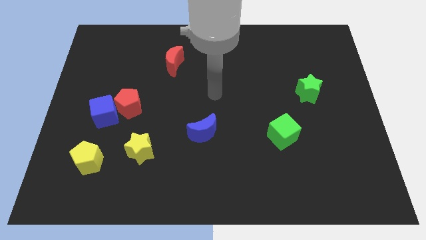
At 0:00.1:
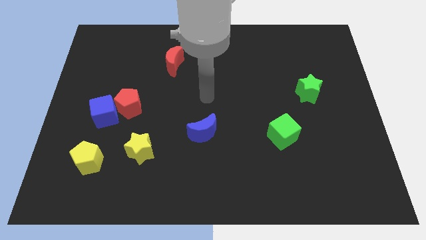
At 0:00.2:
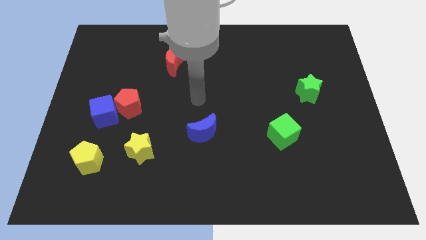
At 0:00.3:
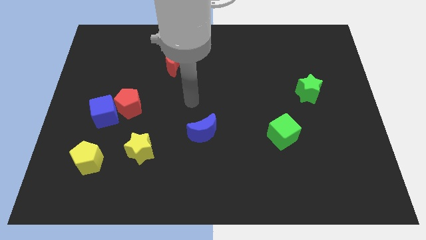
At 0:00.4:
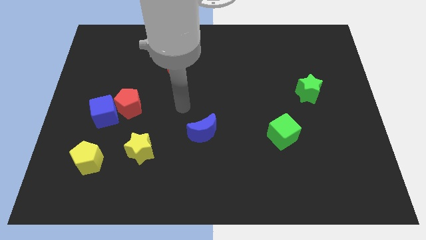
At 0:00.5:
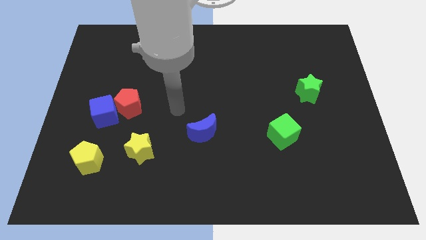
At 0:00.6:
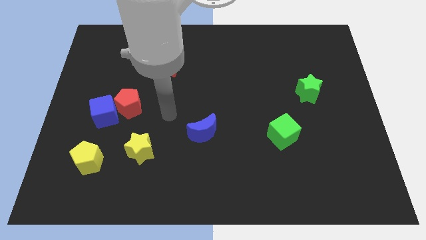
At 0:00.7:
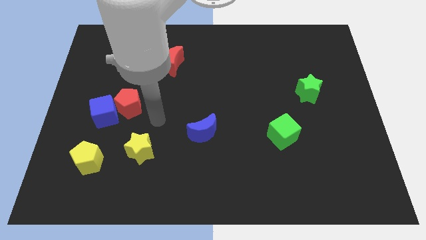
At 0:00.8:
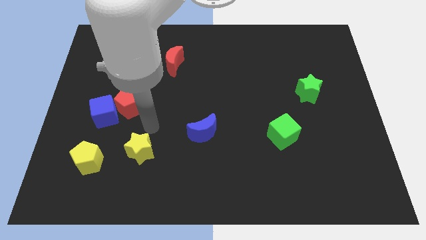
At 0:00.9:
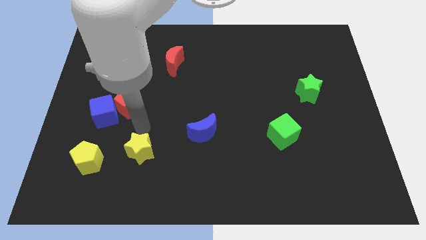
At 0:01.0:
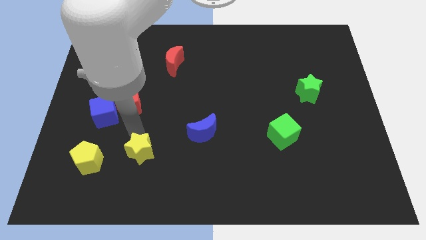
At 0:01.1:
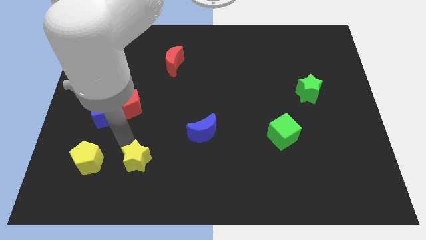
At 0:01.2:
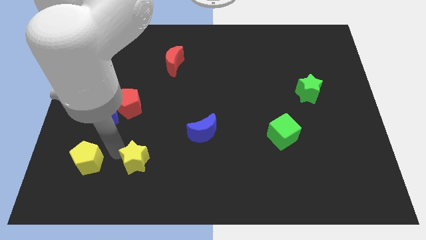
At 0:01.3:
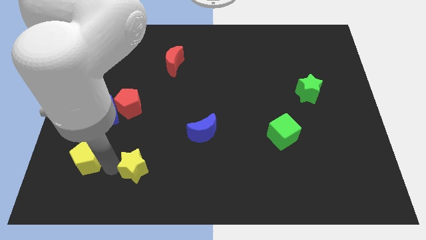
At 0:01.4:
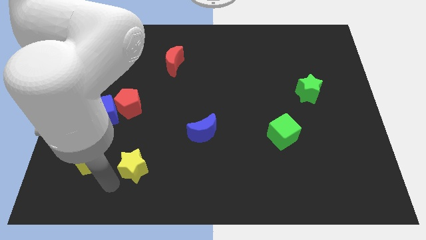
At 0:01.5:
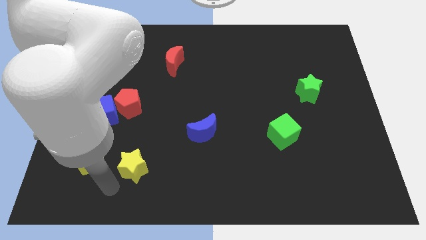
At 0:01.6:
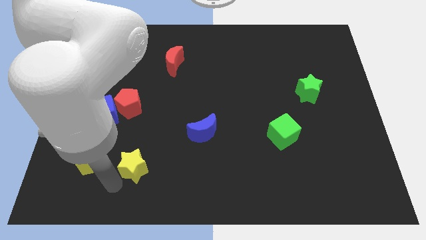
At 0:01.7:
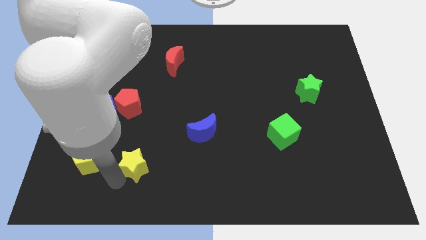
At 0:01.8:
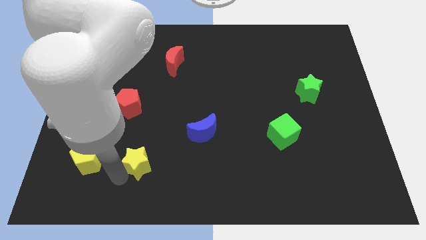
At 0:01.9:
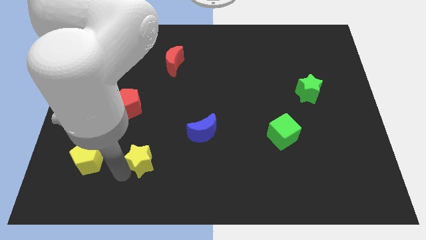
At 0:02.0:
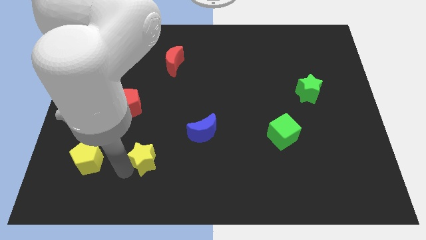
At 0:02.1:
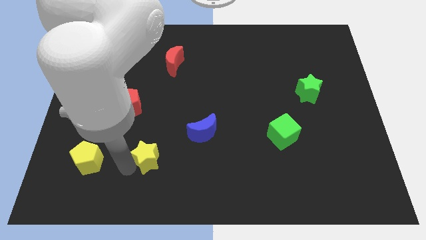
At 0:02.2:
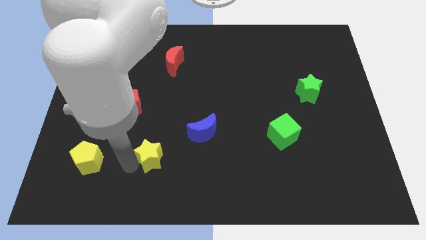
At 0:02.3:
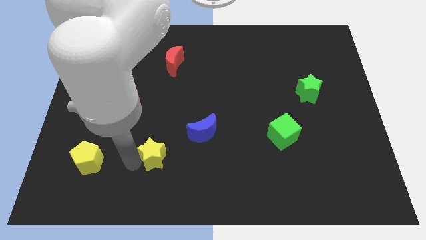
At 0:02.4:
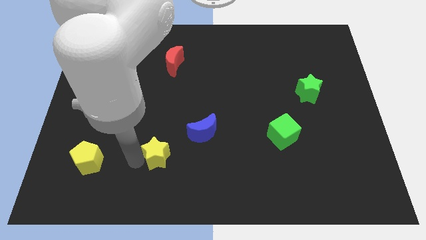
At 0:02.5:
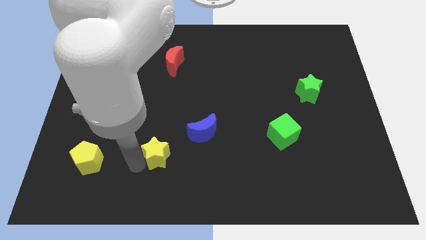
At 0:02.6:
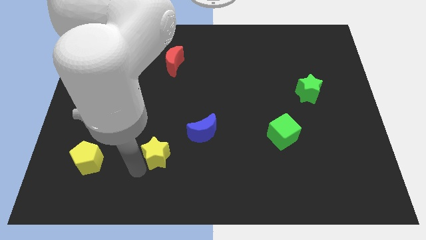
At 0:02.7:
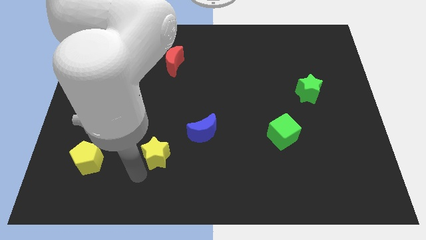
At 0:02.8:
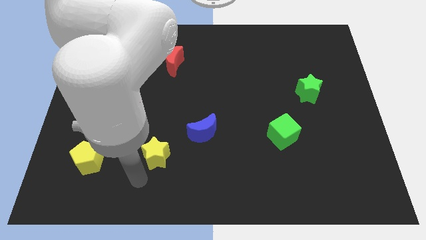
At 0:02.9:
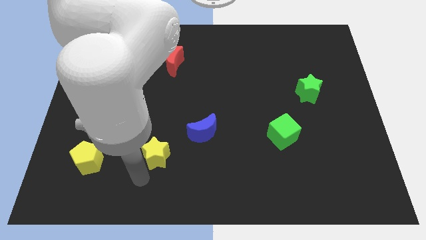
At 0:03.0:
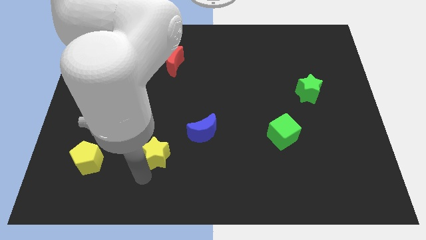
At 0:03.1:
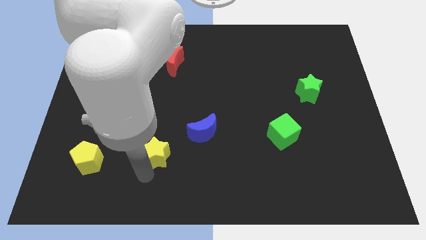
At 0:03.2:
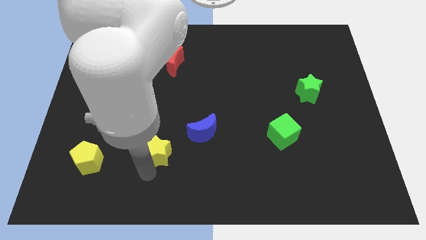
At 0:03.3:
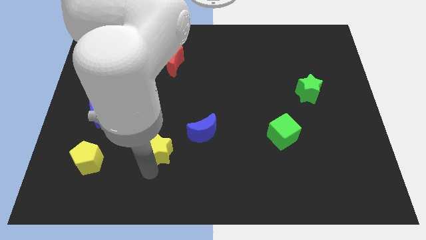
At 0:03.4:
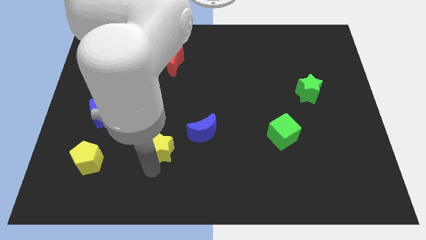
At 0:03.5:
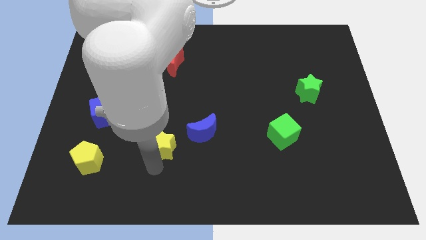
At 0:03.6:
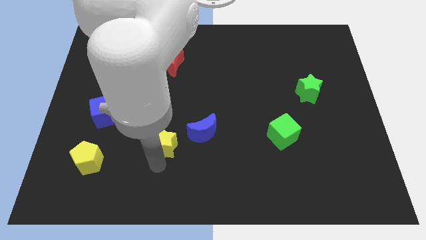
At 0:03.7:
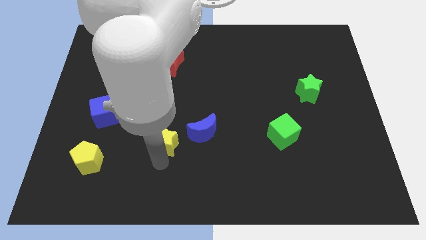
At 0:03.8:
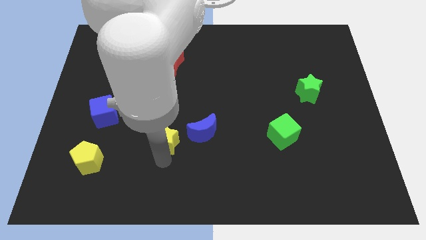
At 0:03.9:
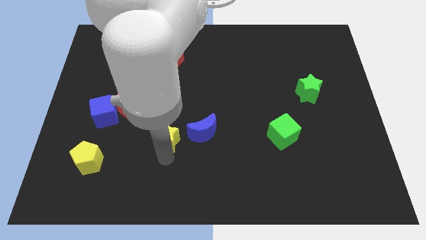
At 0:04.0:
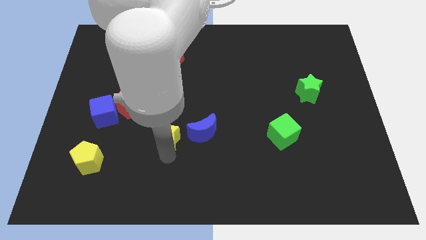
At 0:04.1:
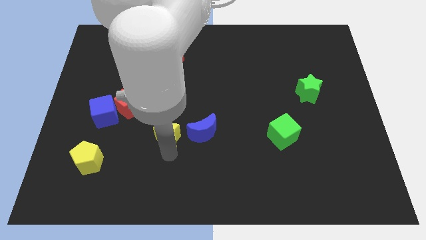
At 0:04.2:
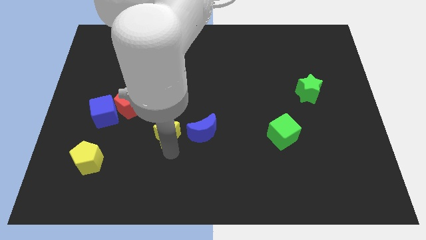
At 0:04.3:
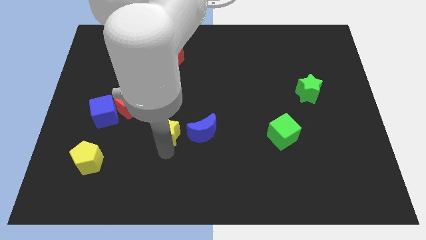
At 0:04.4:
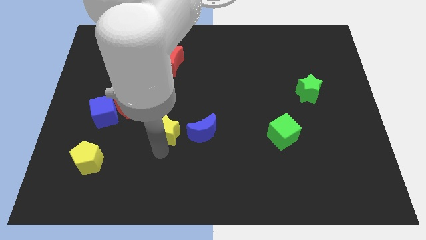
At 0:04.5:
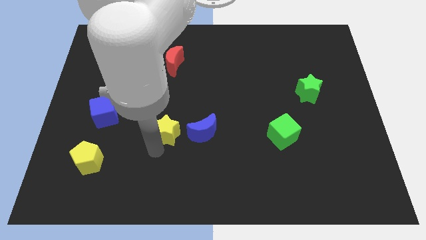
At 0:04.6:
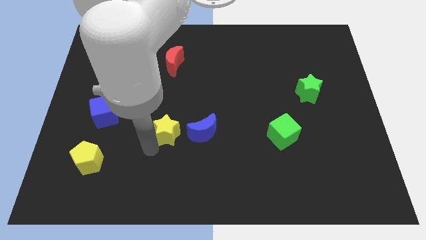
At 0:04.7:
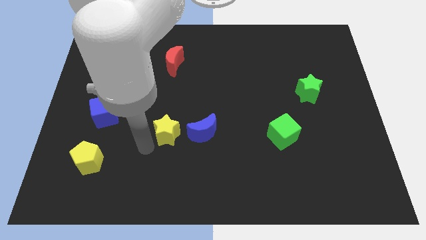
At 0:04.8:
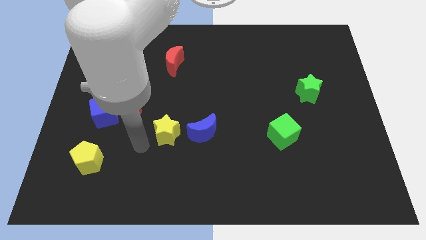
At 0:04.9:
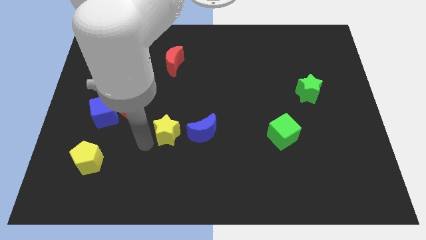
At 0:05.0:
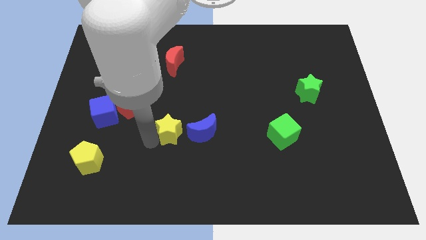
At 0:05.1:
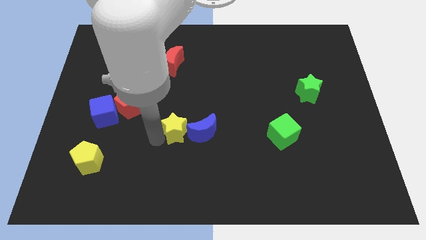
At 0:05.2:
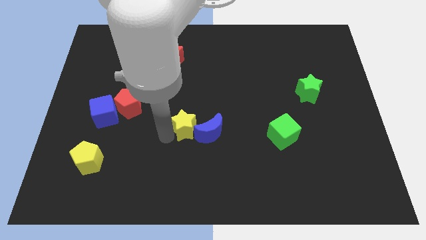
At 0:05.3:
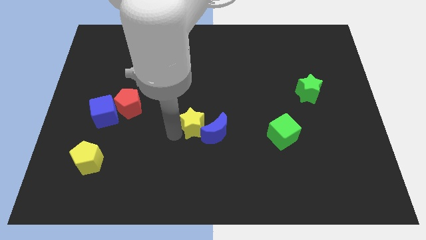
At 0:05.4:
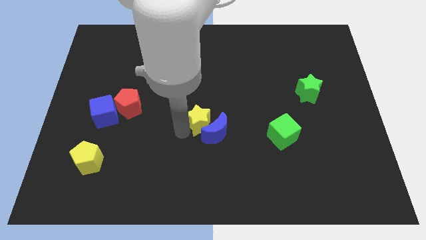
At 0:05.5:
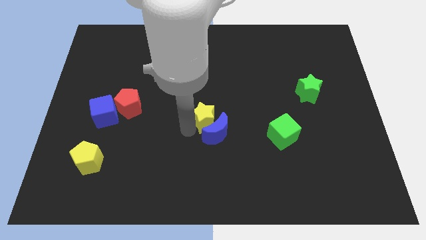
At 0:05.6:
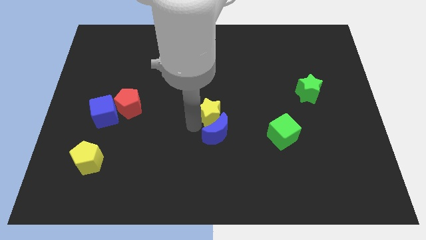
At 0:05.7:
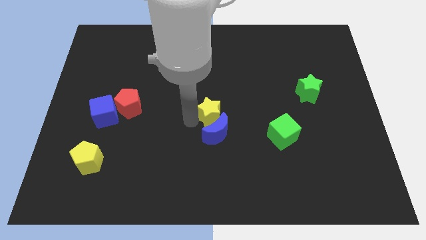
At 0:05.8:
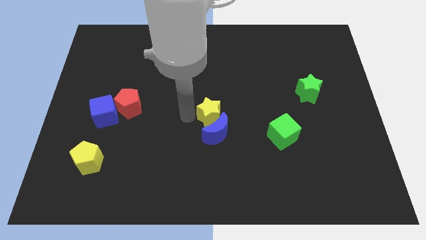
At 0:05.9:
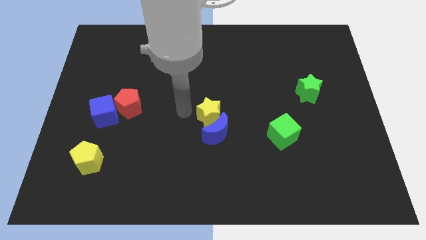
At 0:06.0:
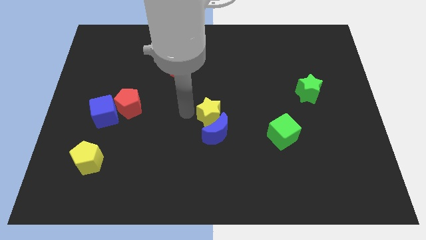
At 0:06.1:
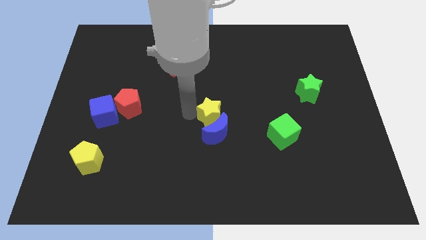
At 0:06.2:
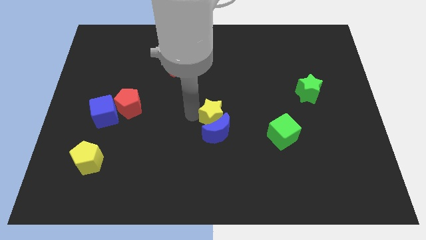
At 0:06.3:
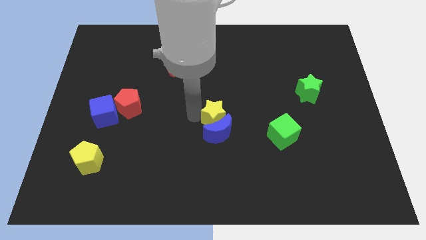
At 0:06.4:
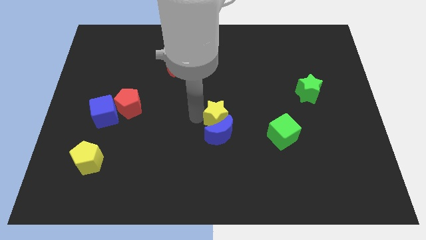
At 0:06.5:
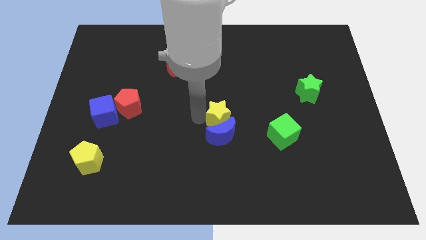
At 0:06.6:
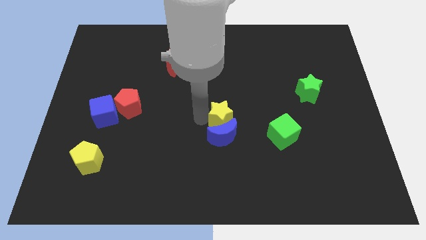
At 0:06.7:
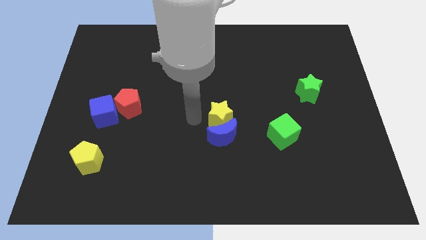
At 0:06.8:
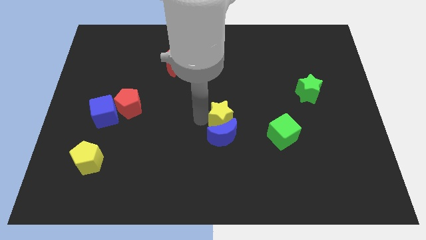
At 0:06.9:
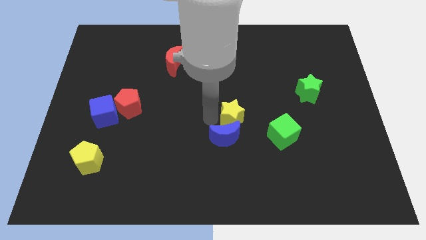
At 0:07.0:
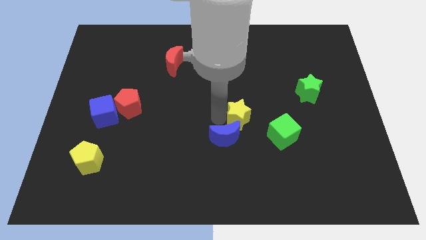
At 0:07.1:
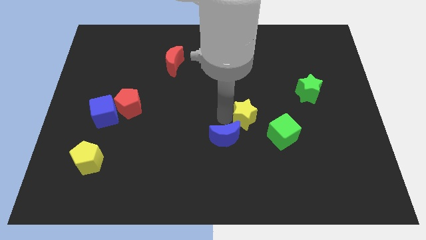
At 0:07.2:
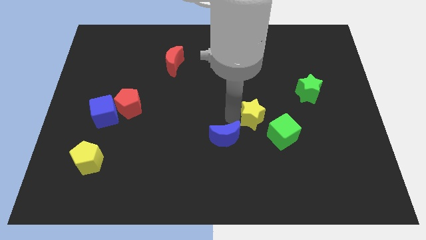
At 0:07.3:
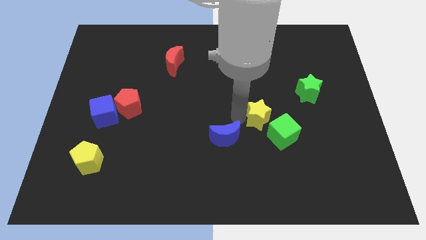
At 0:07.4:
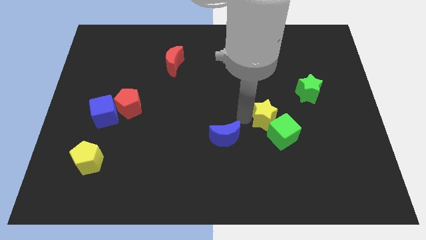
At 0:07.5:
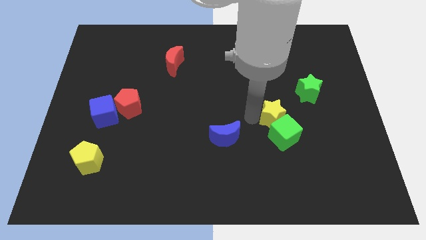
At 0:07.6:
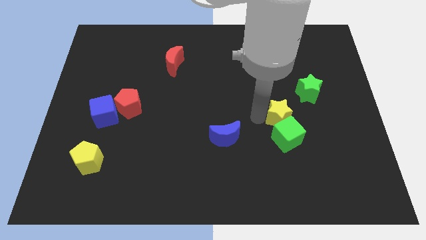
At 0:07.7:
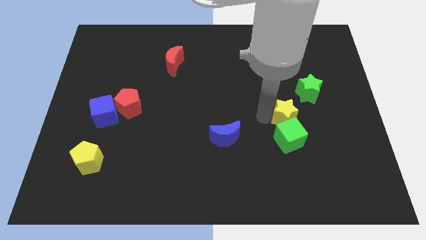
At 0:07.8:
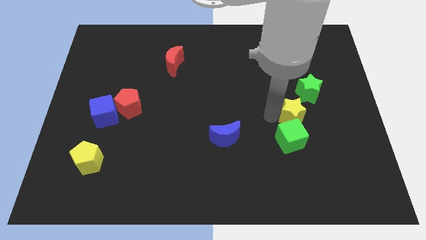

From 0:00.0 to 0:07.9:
move the yellow star below the green star
